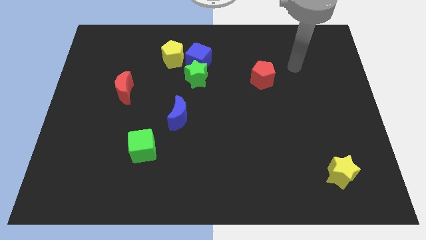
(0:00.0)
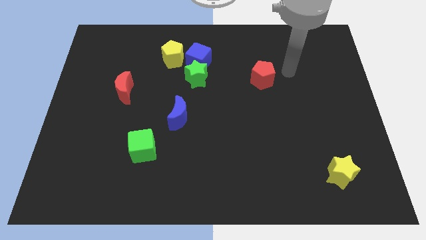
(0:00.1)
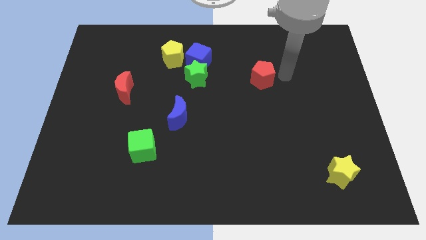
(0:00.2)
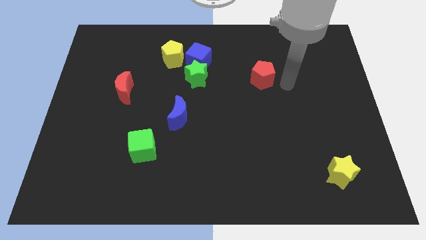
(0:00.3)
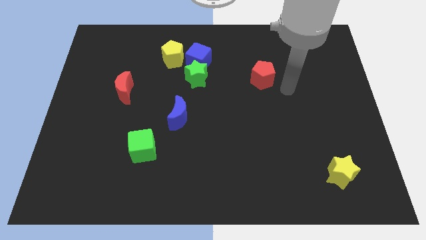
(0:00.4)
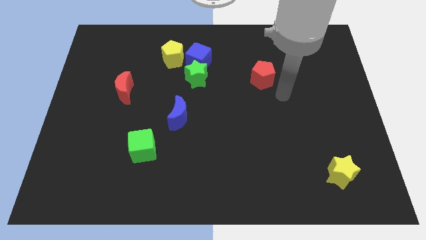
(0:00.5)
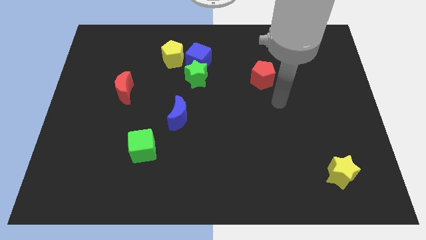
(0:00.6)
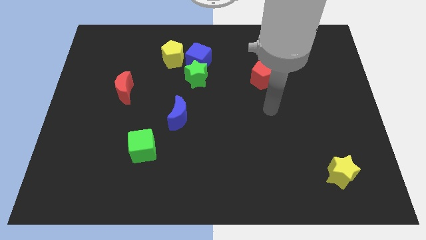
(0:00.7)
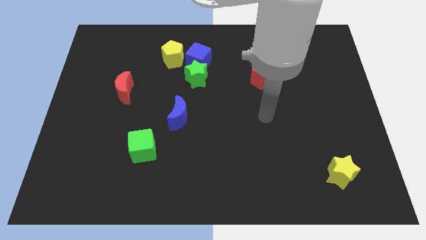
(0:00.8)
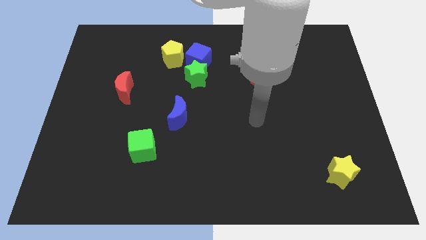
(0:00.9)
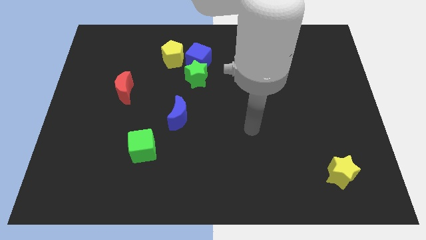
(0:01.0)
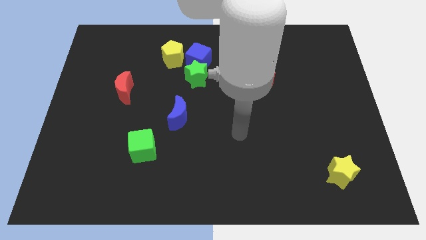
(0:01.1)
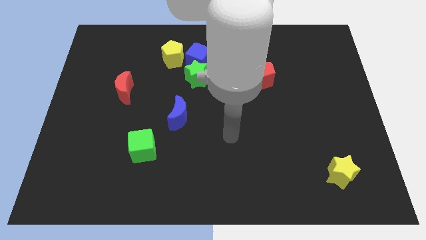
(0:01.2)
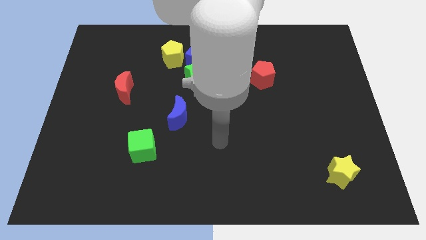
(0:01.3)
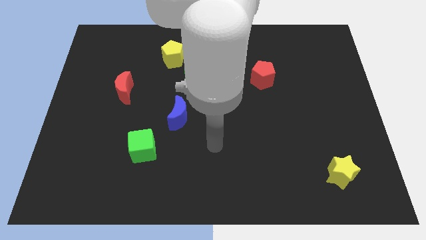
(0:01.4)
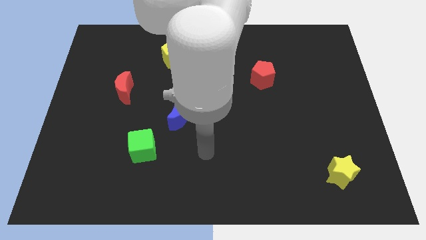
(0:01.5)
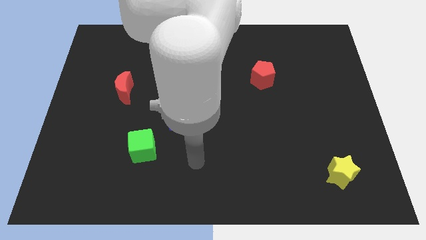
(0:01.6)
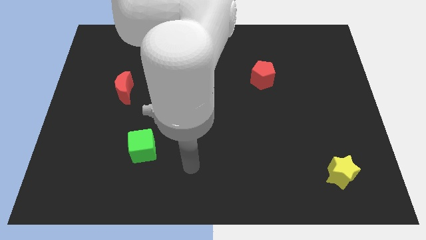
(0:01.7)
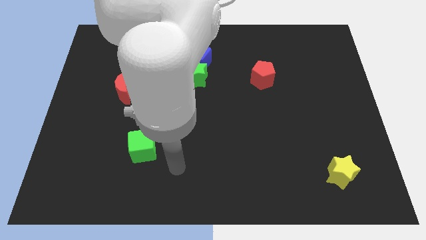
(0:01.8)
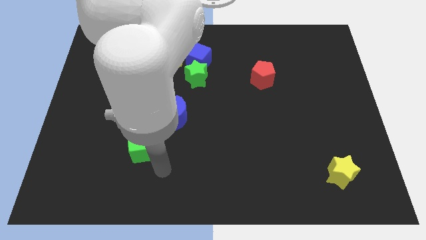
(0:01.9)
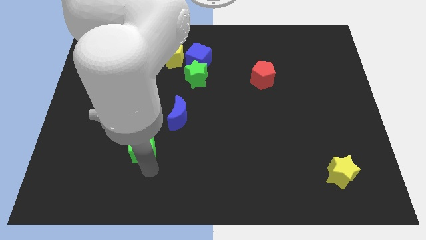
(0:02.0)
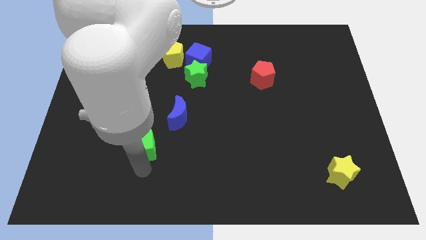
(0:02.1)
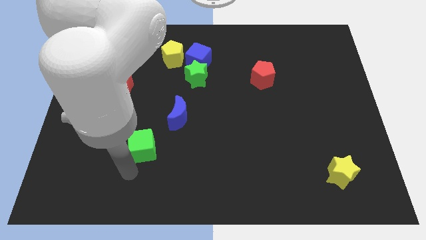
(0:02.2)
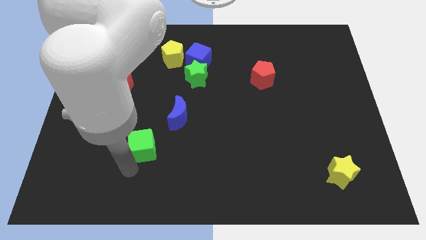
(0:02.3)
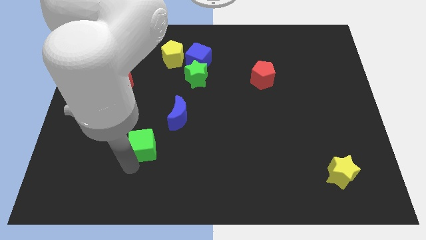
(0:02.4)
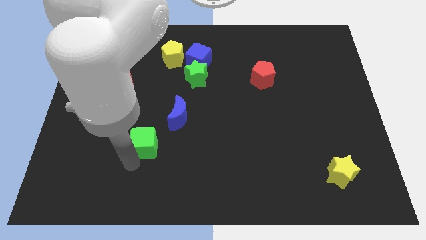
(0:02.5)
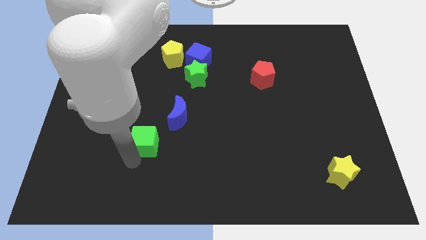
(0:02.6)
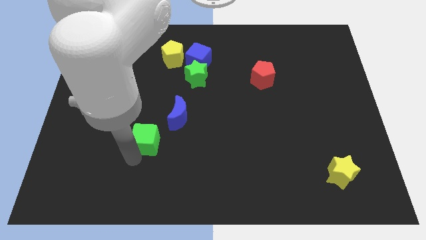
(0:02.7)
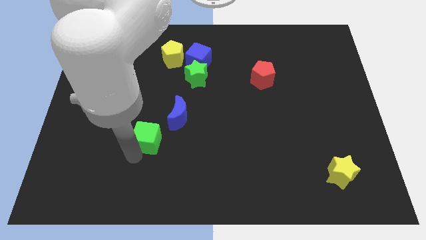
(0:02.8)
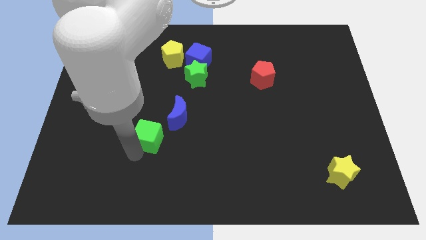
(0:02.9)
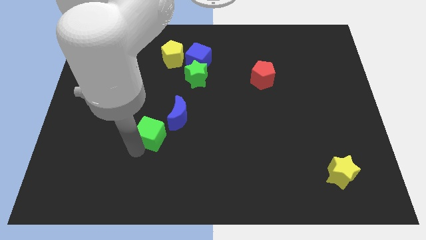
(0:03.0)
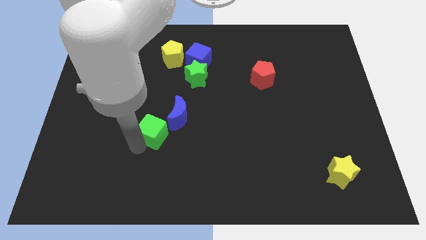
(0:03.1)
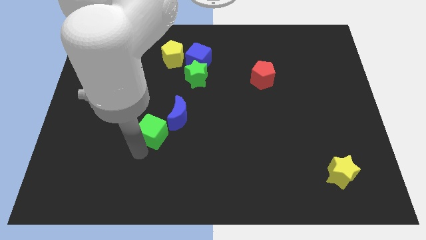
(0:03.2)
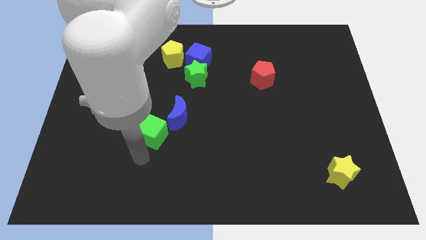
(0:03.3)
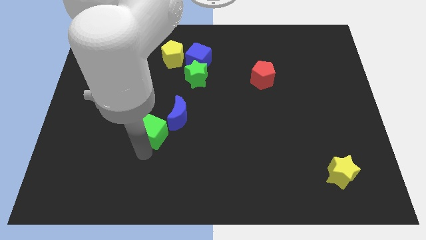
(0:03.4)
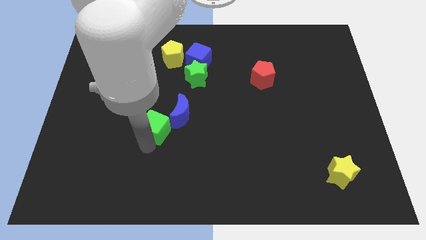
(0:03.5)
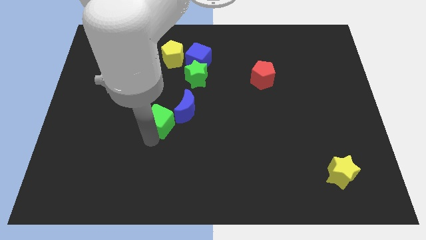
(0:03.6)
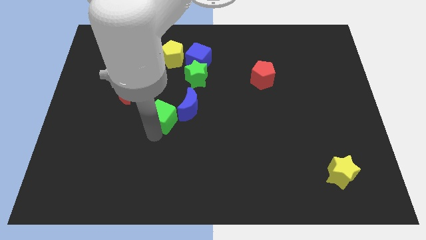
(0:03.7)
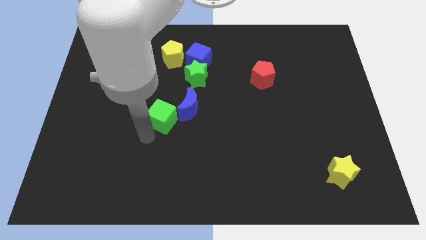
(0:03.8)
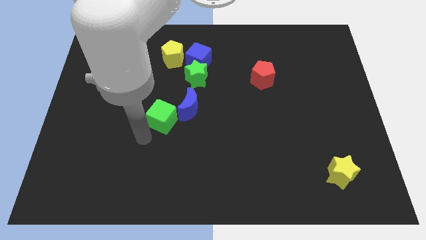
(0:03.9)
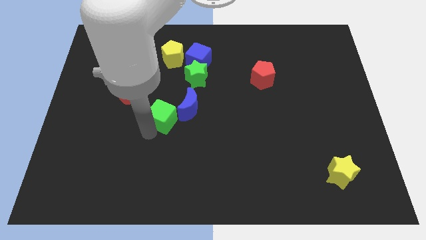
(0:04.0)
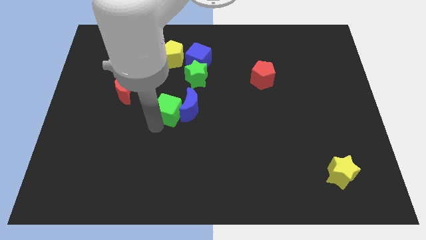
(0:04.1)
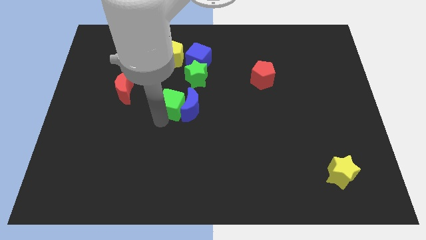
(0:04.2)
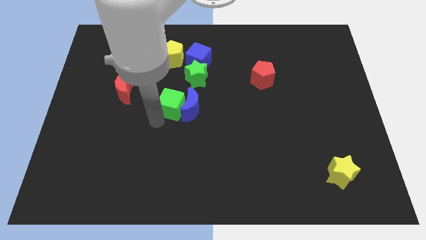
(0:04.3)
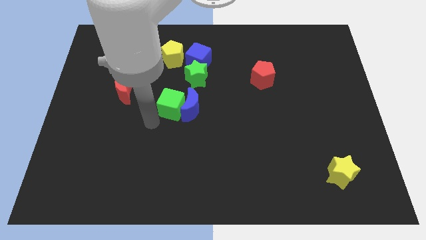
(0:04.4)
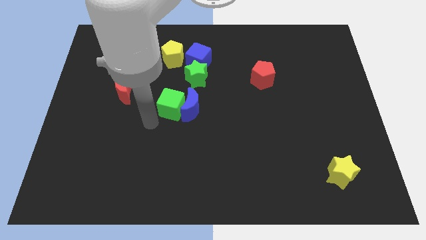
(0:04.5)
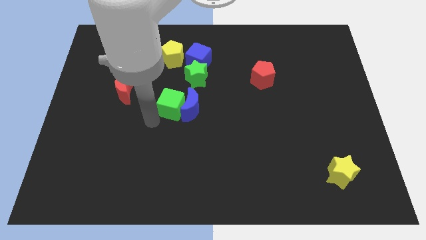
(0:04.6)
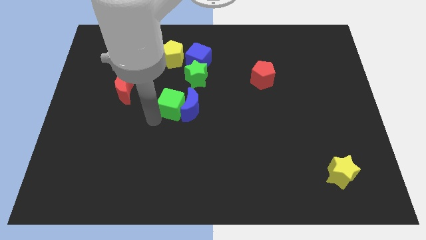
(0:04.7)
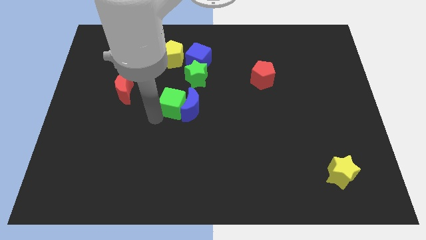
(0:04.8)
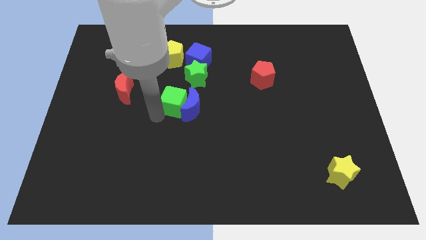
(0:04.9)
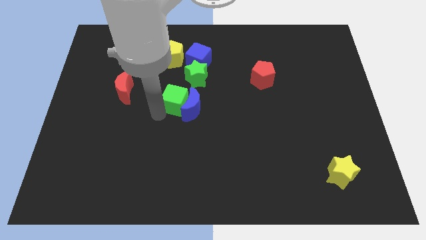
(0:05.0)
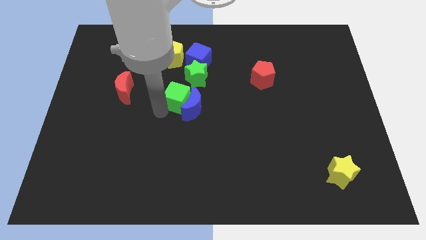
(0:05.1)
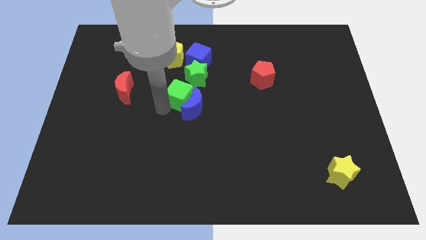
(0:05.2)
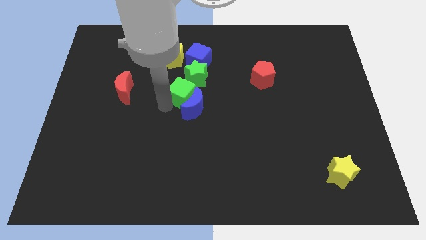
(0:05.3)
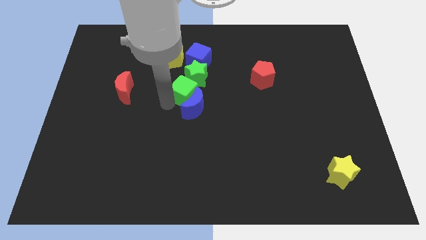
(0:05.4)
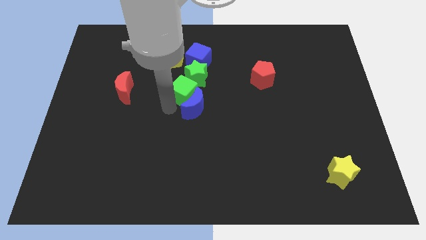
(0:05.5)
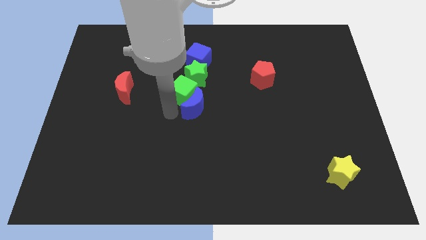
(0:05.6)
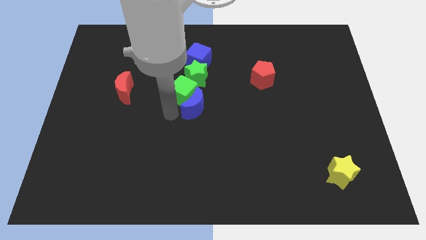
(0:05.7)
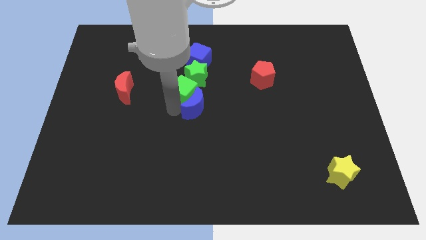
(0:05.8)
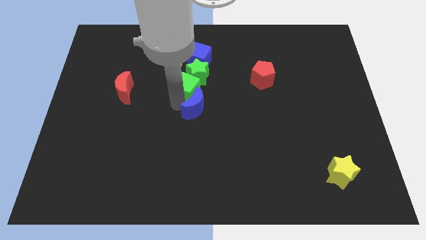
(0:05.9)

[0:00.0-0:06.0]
put the green cube next to the green star

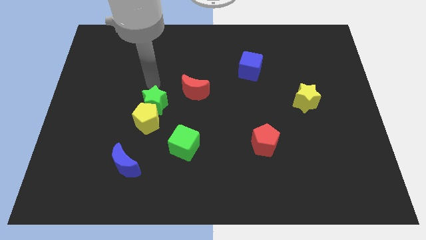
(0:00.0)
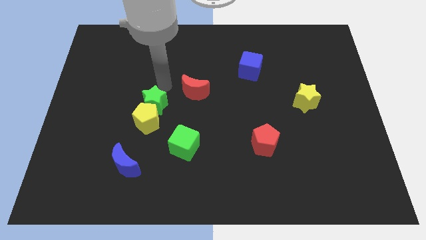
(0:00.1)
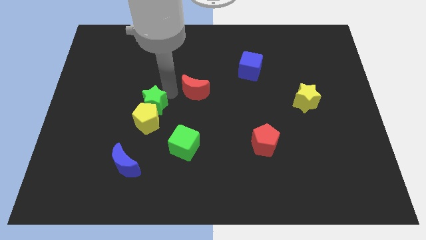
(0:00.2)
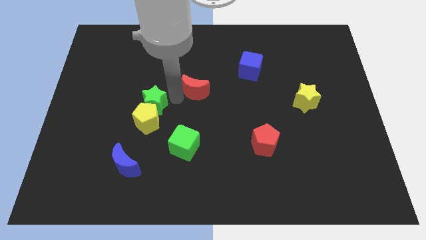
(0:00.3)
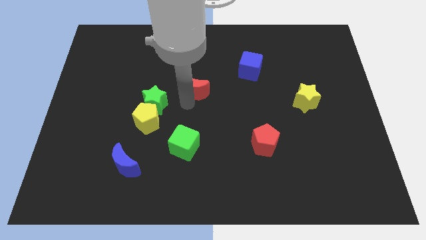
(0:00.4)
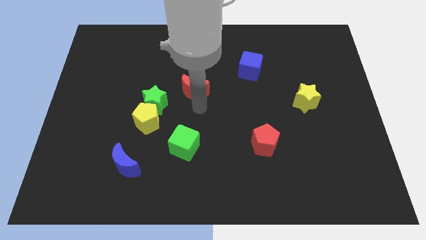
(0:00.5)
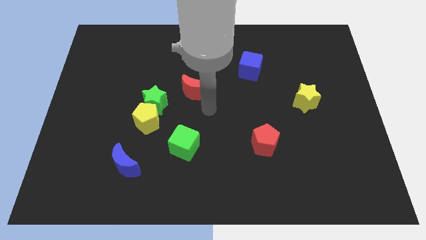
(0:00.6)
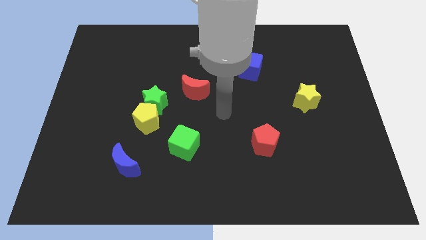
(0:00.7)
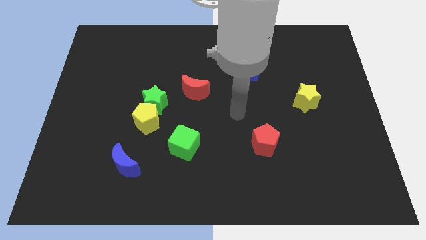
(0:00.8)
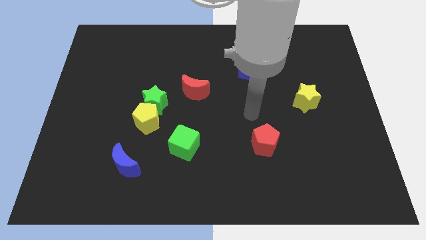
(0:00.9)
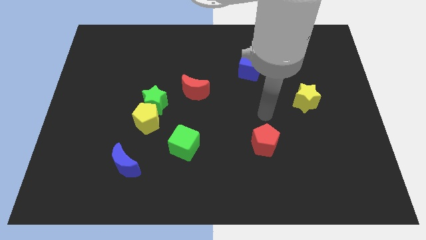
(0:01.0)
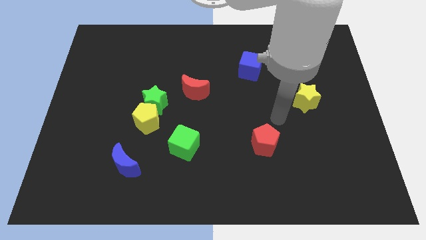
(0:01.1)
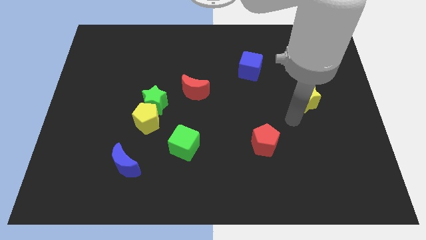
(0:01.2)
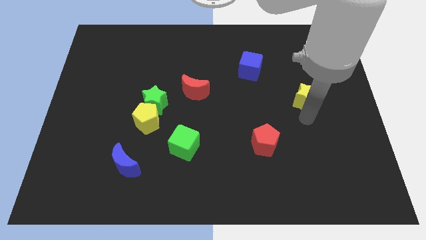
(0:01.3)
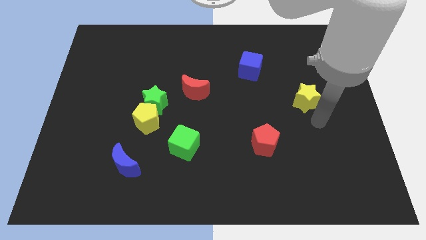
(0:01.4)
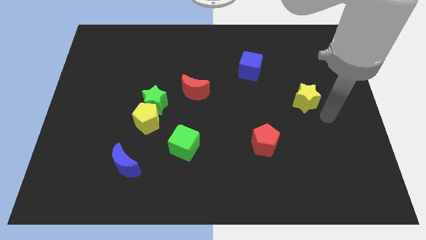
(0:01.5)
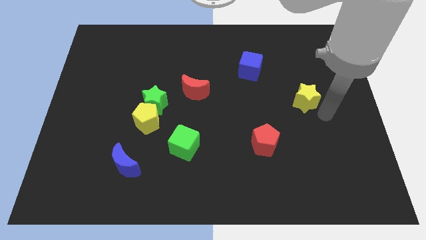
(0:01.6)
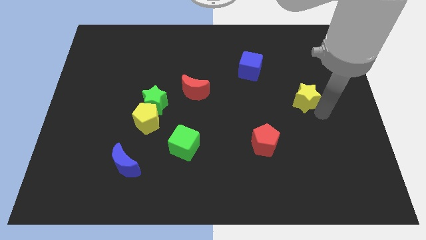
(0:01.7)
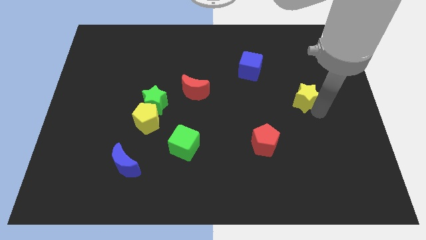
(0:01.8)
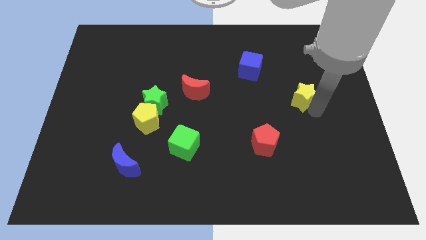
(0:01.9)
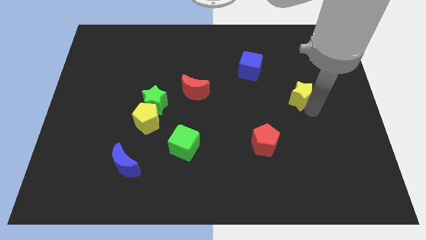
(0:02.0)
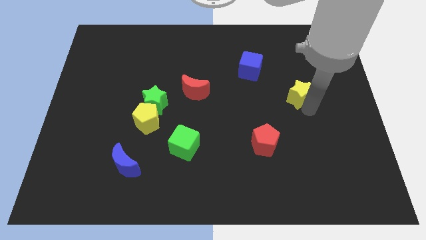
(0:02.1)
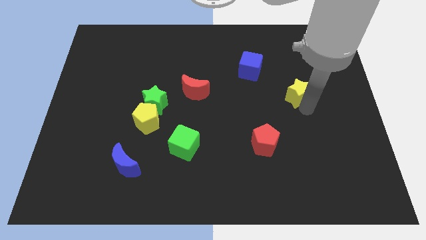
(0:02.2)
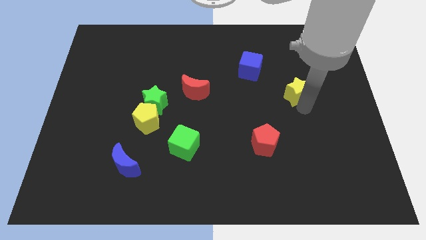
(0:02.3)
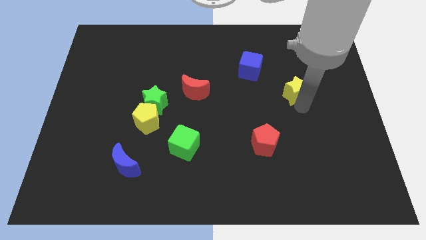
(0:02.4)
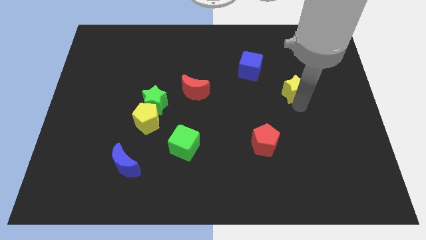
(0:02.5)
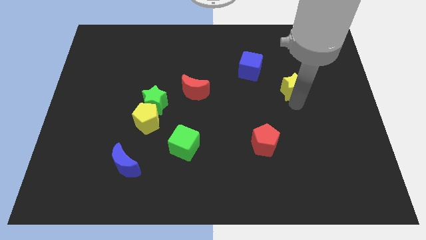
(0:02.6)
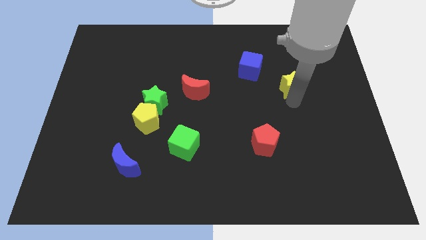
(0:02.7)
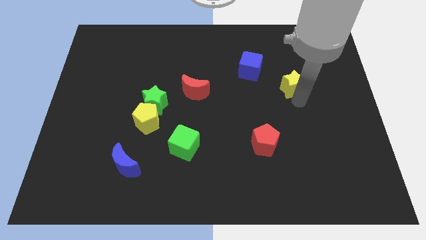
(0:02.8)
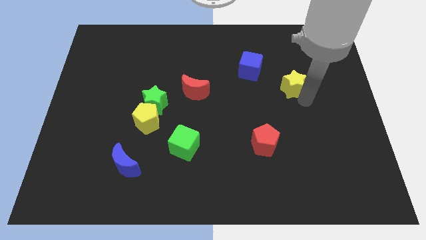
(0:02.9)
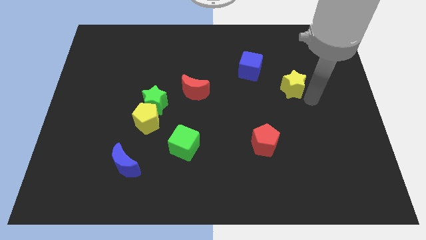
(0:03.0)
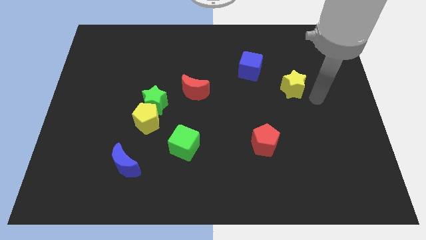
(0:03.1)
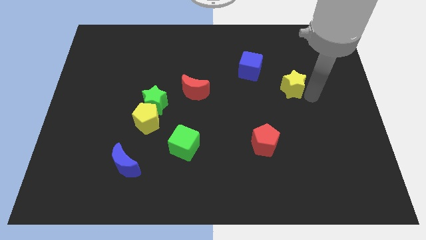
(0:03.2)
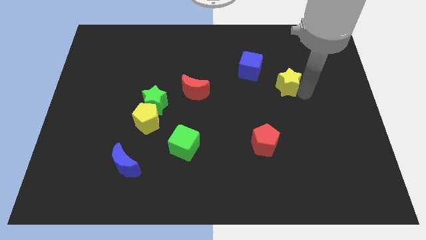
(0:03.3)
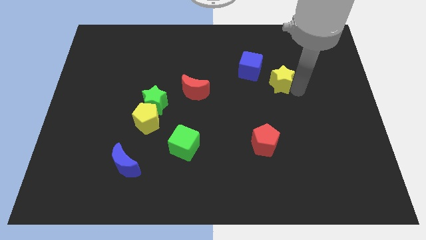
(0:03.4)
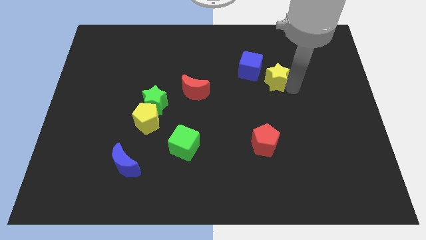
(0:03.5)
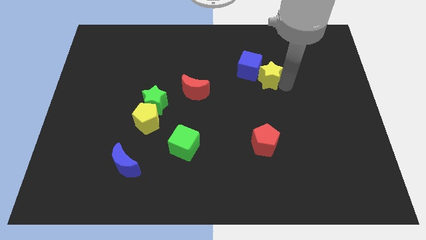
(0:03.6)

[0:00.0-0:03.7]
slide the yellow star towards the blue cube
